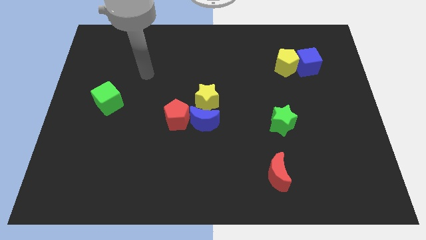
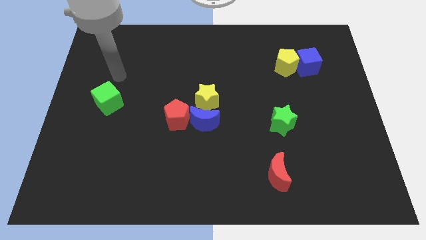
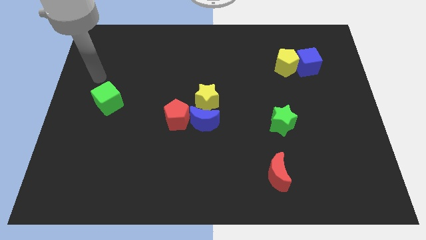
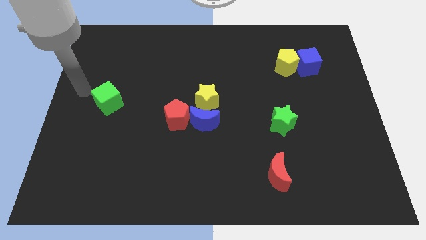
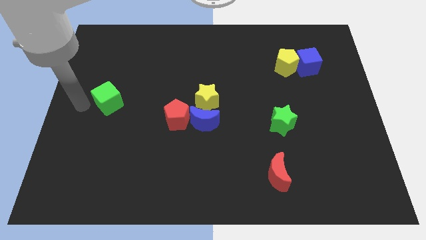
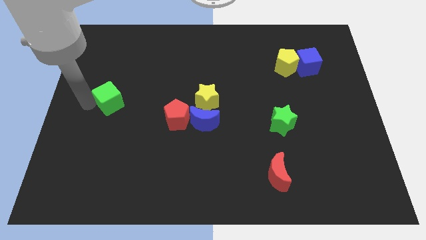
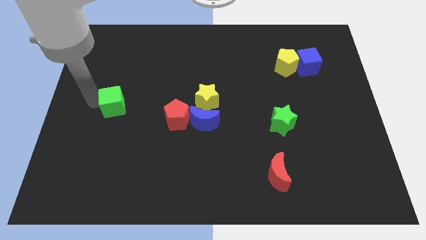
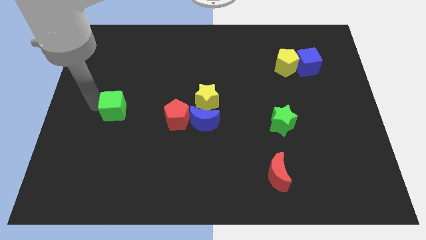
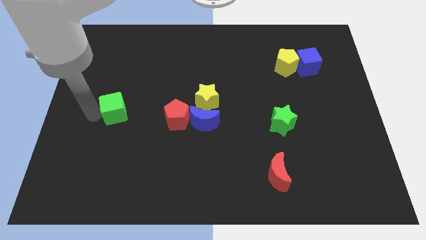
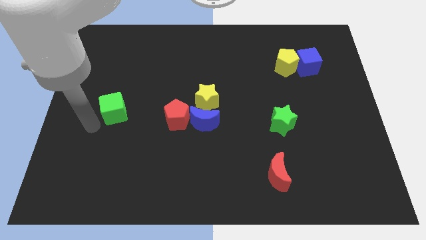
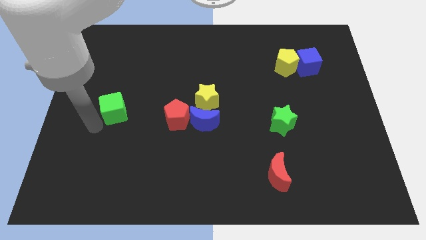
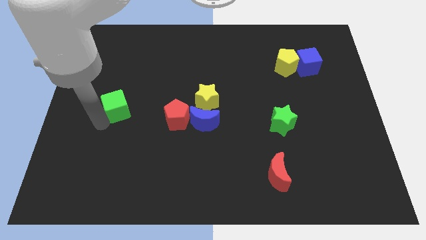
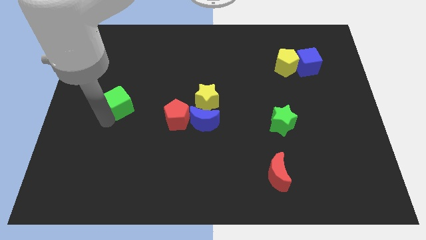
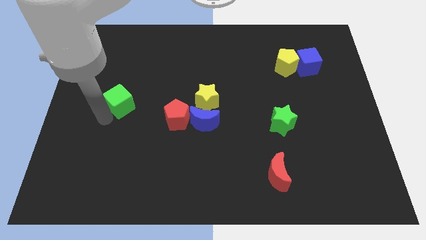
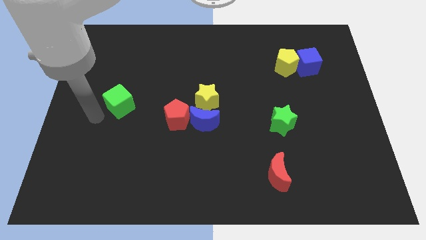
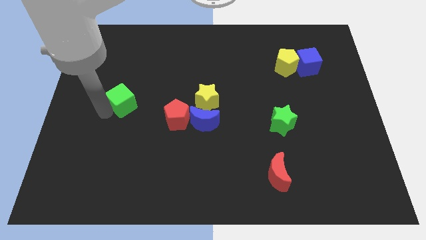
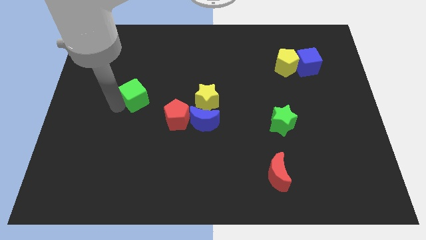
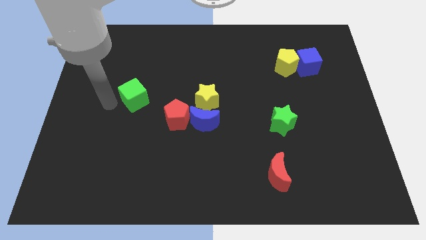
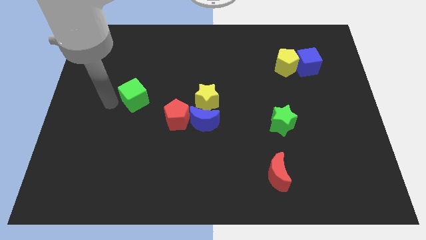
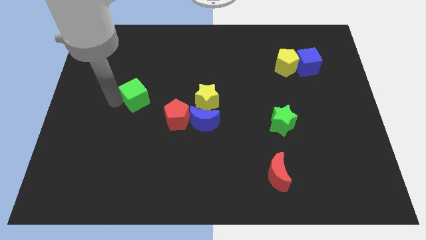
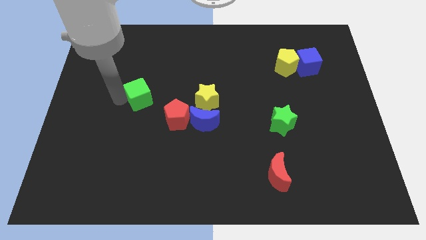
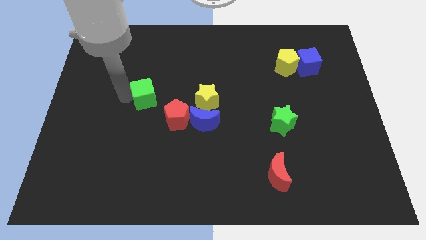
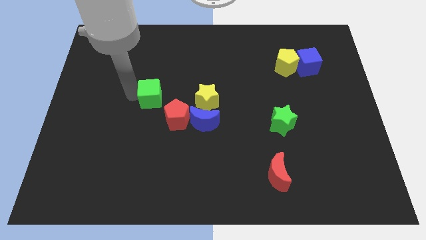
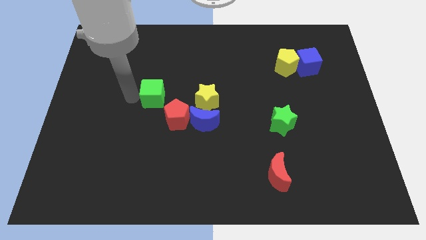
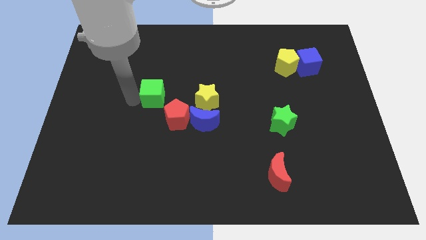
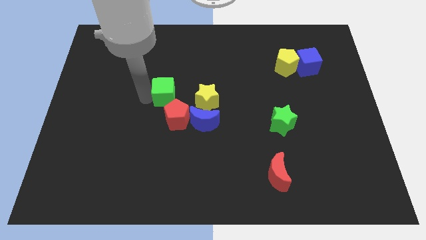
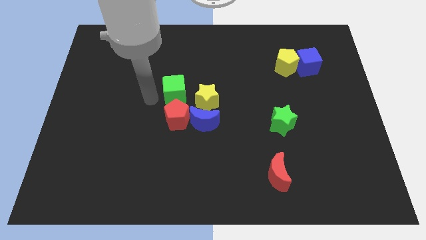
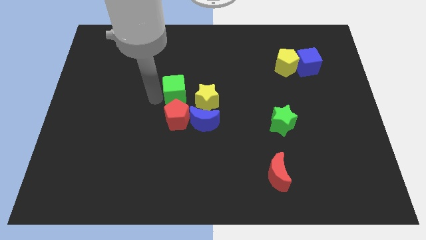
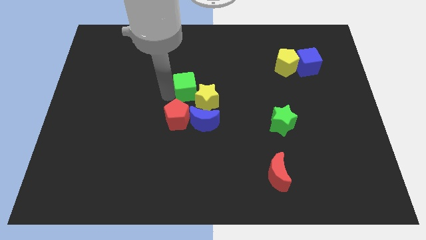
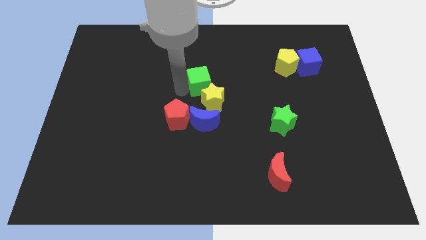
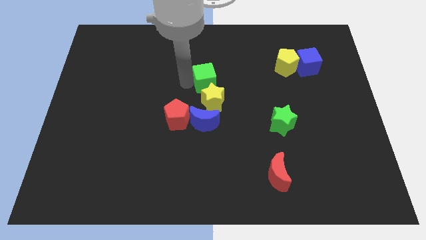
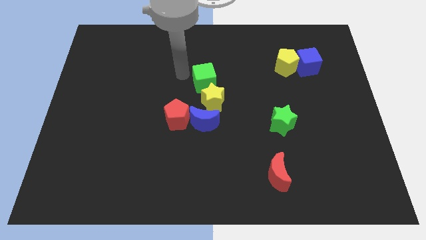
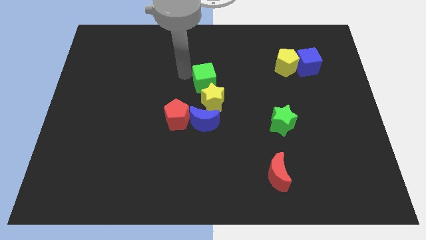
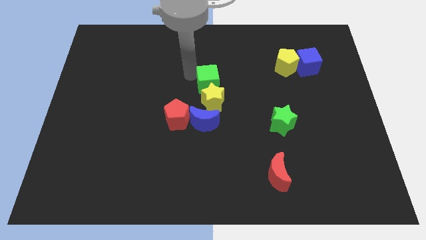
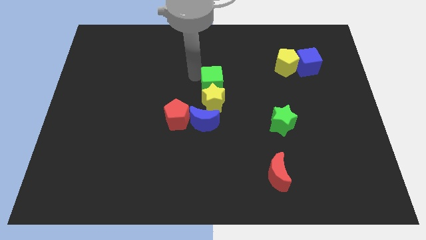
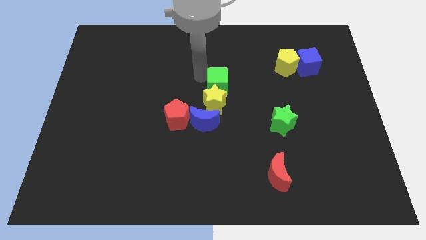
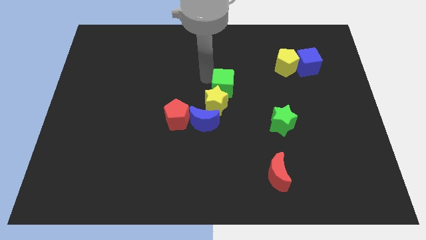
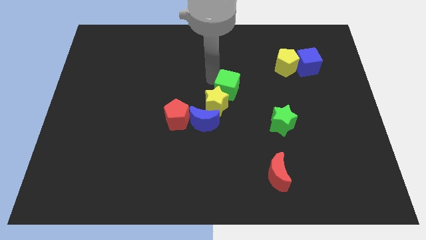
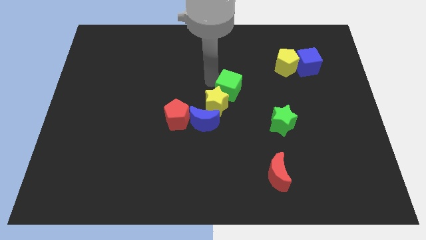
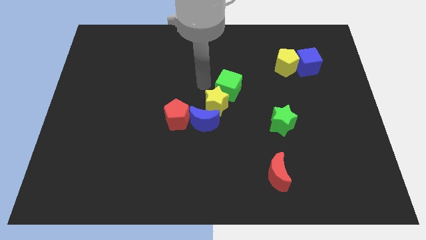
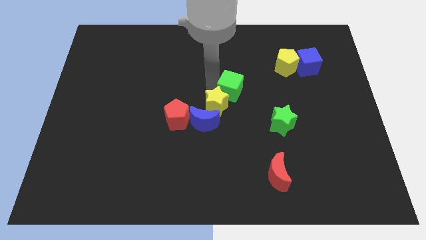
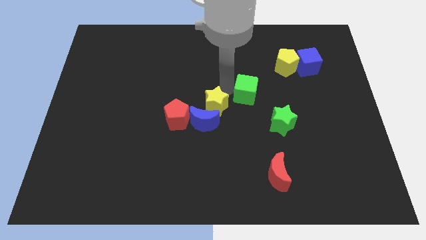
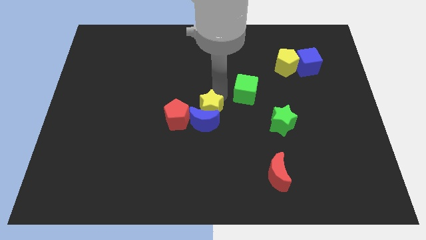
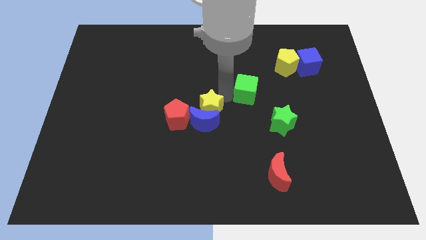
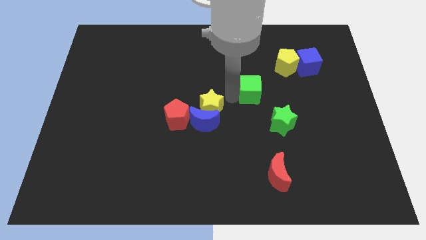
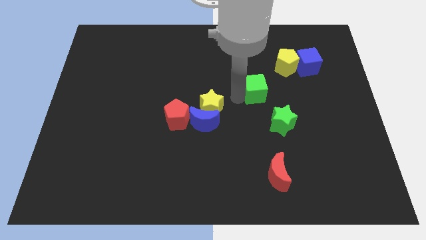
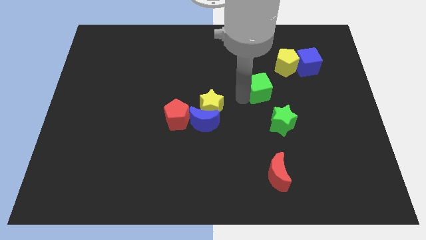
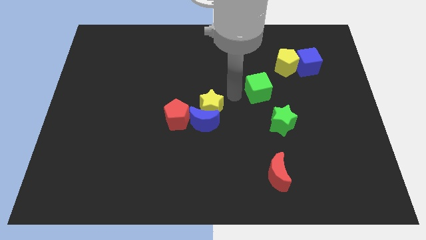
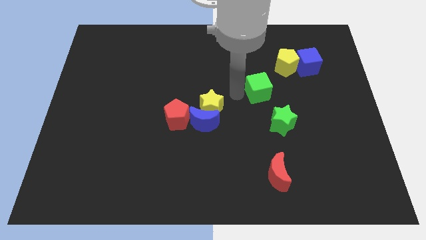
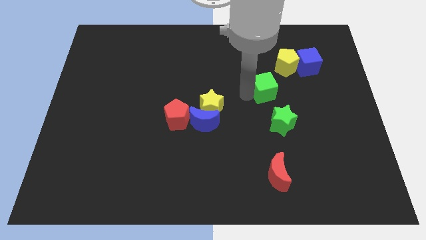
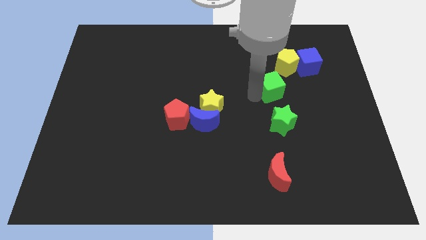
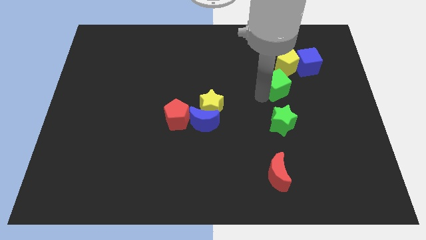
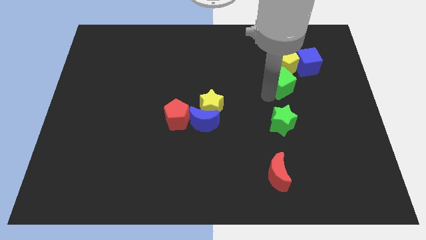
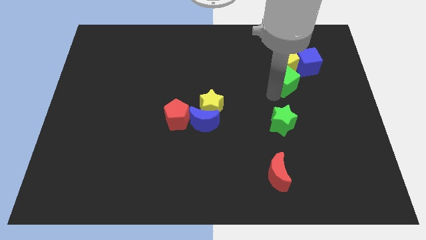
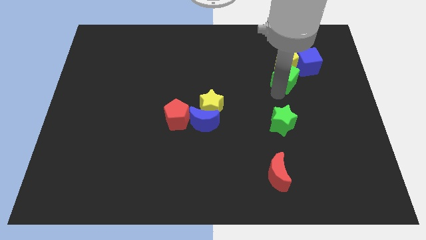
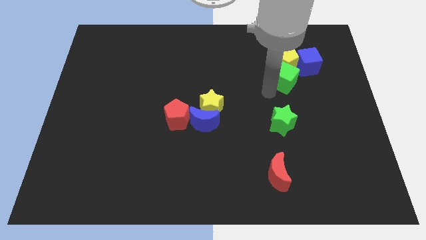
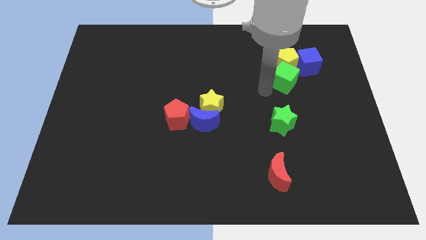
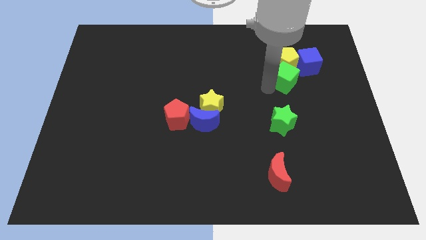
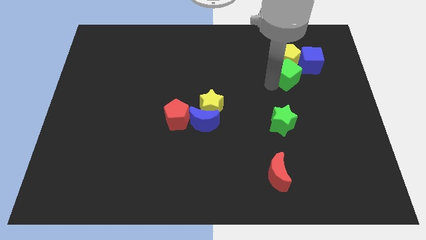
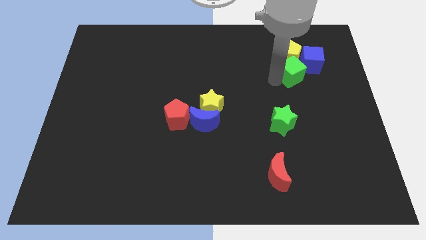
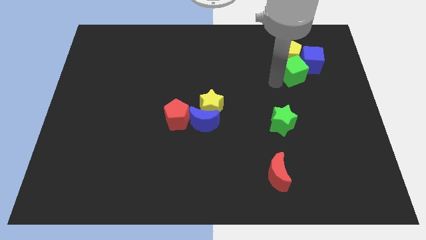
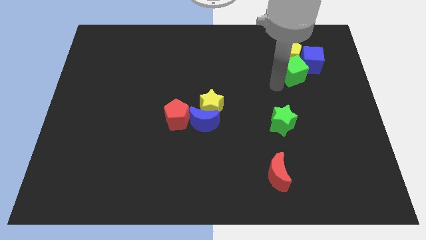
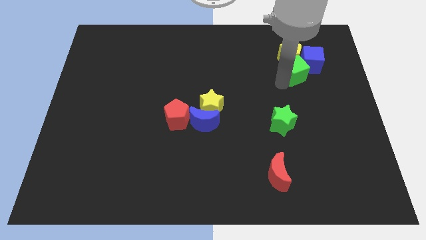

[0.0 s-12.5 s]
put the green cube next to the blue cube
